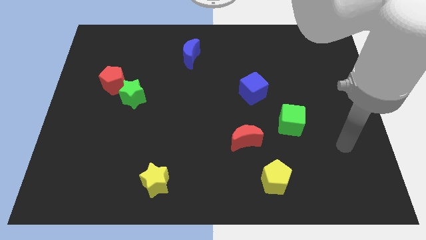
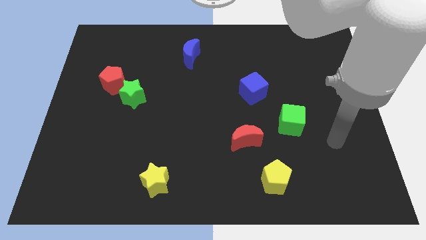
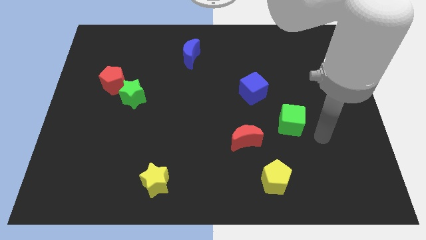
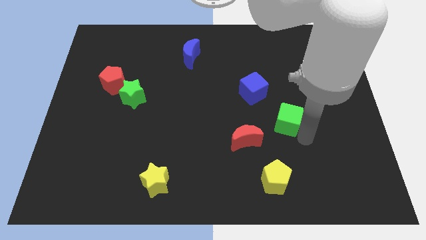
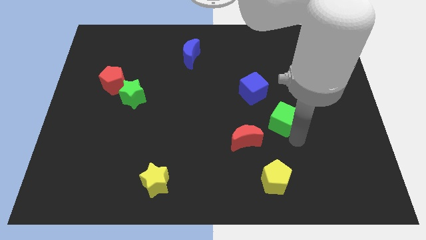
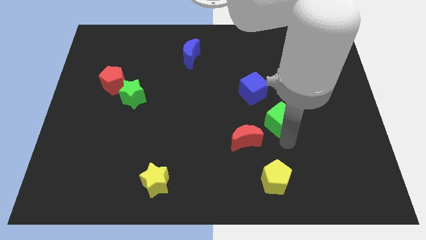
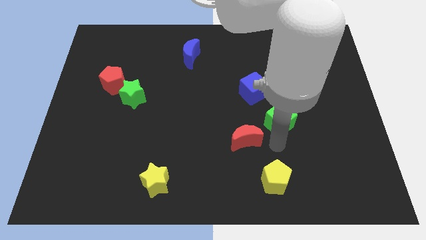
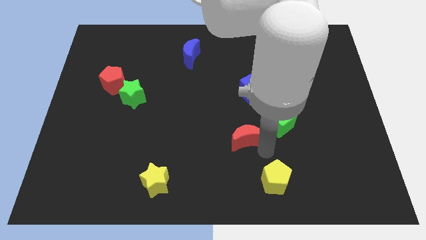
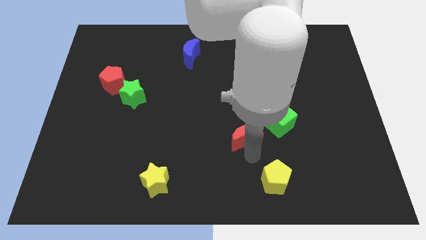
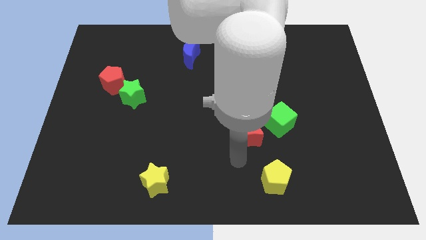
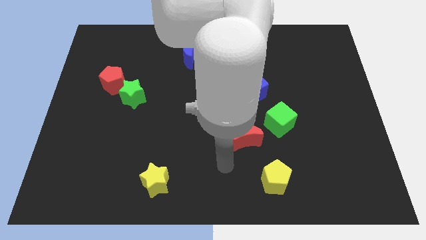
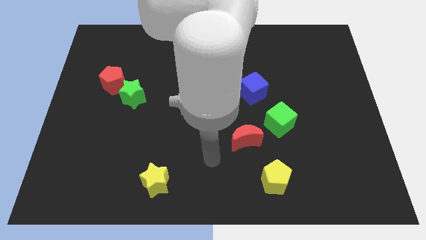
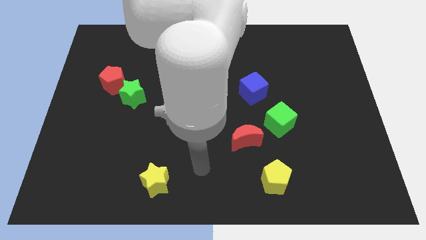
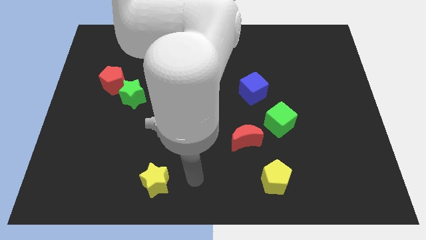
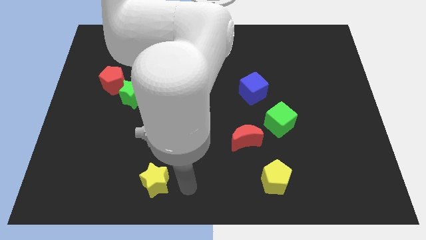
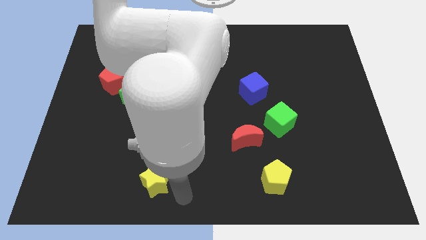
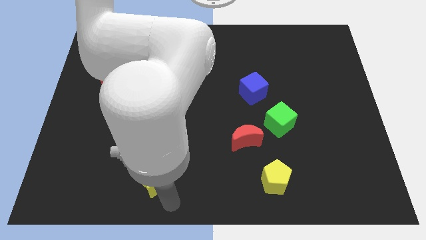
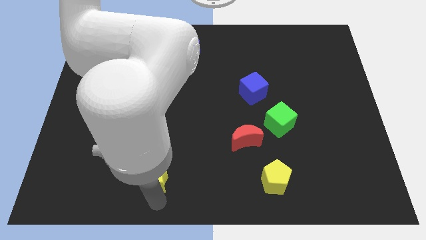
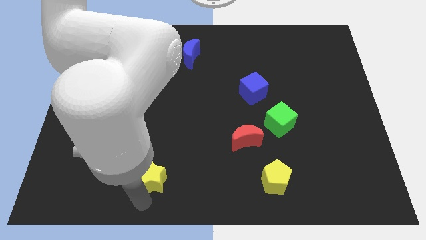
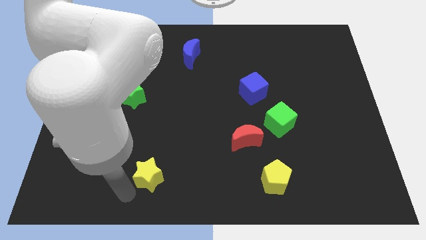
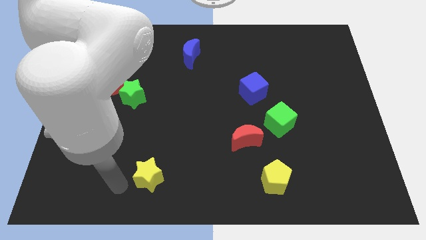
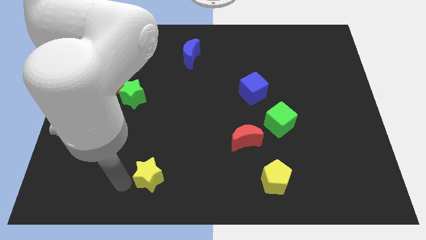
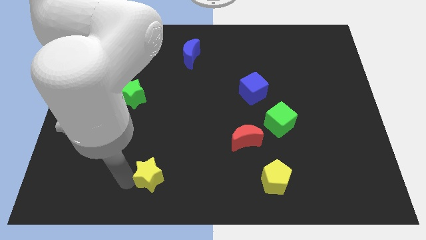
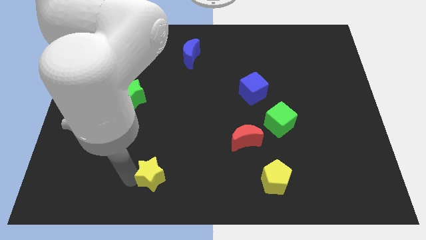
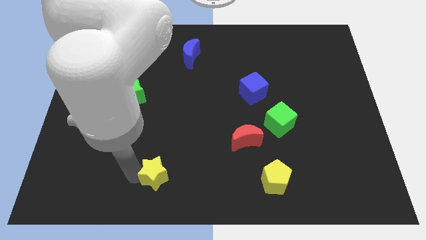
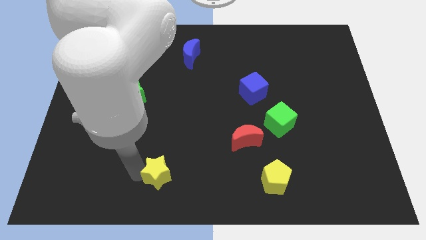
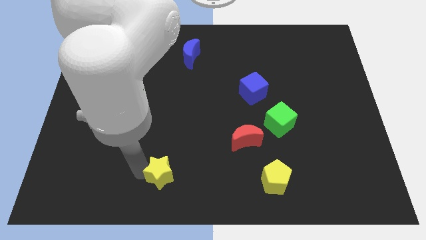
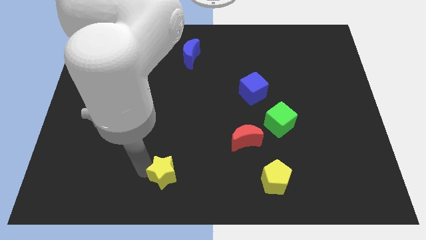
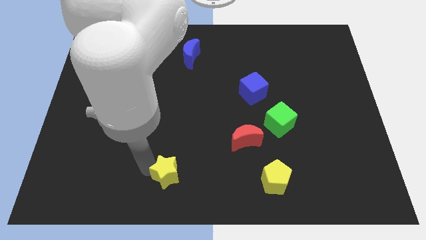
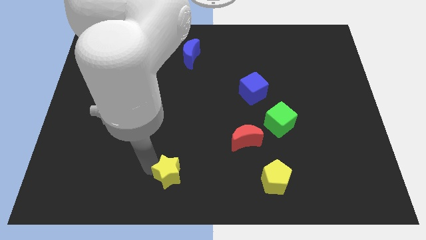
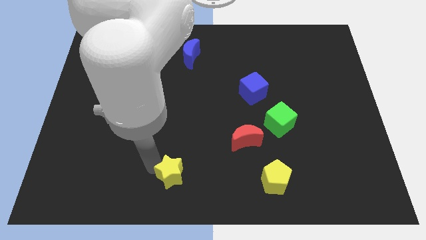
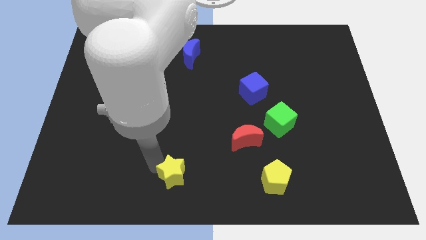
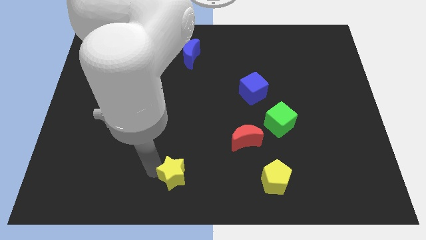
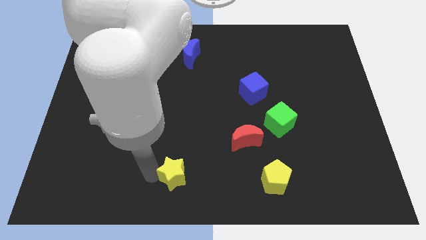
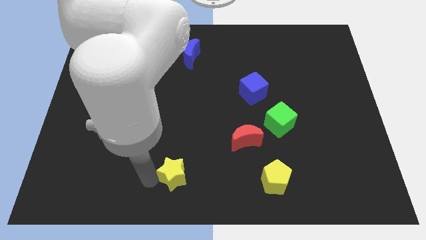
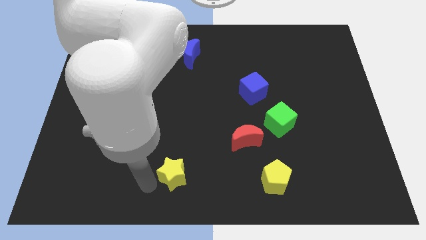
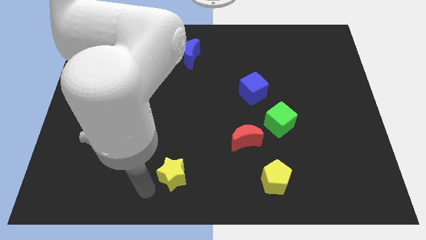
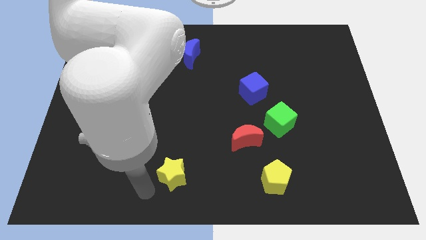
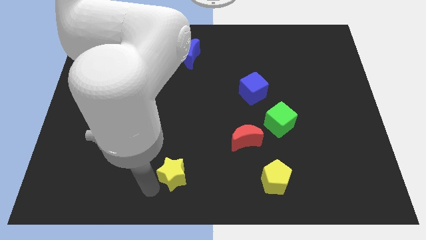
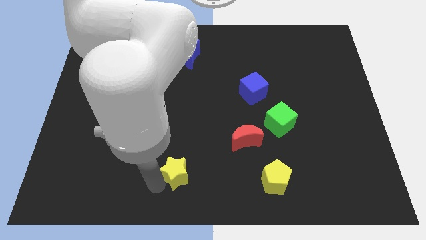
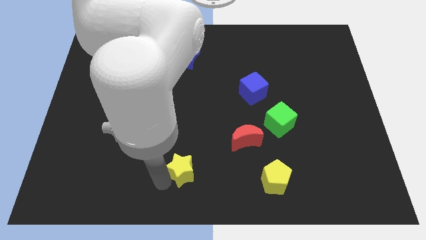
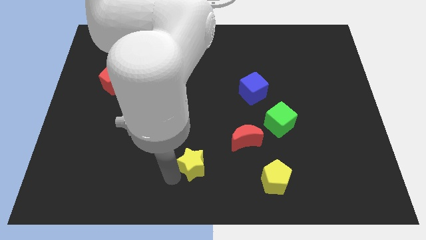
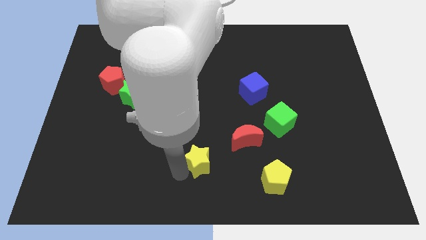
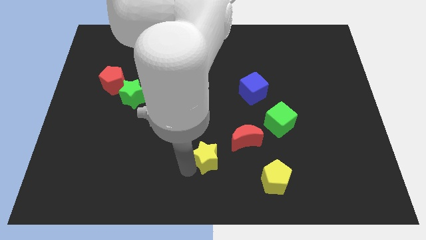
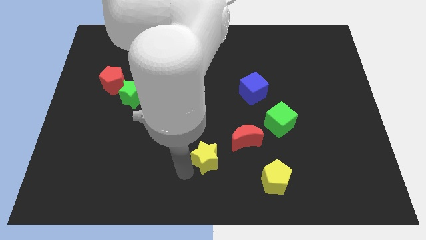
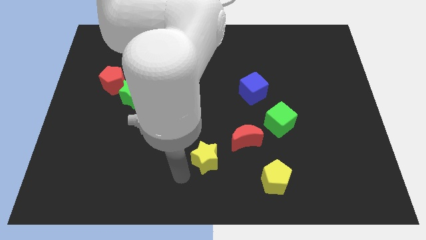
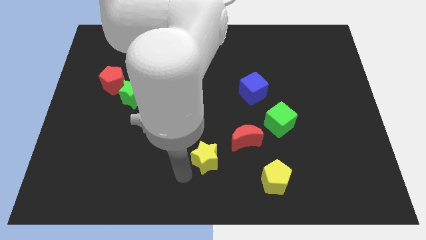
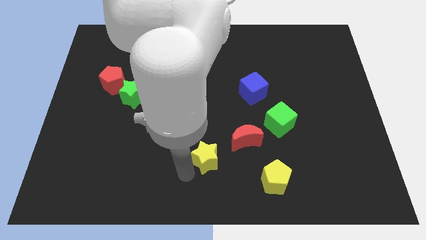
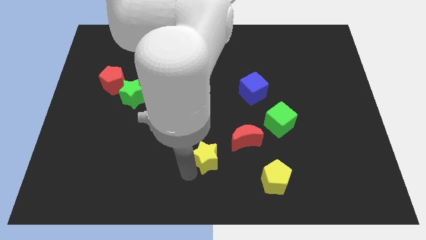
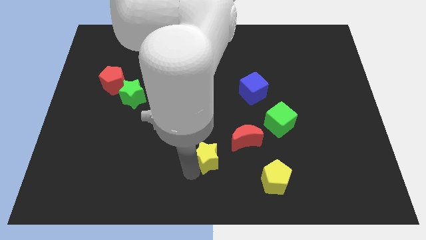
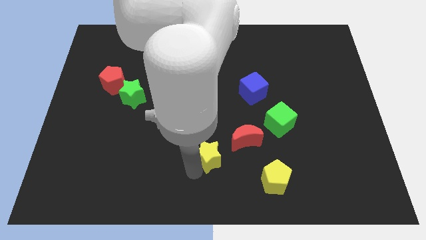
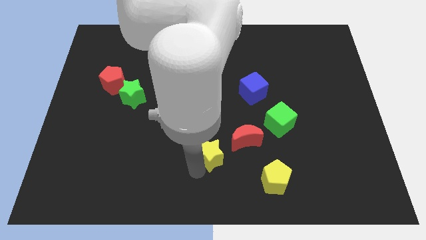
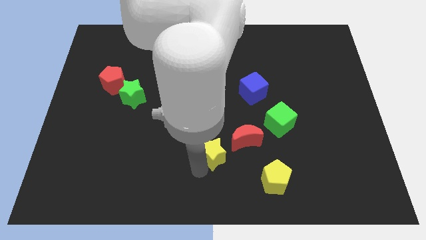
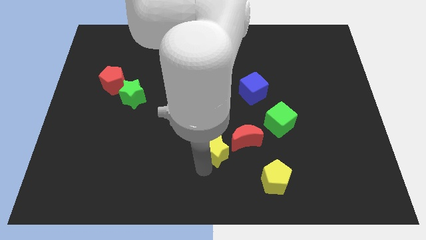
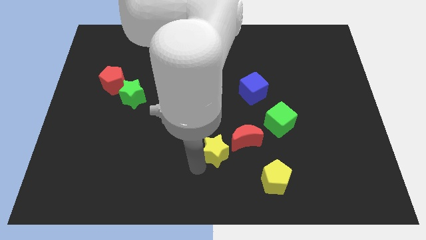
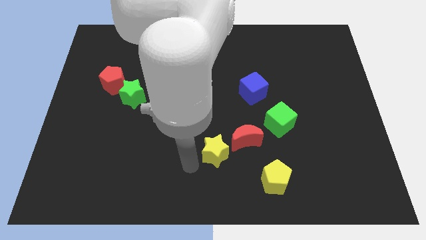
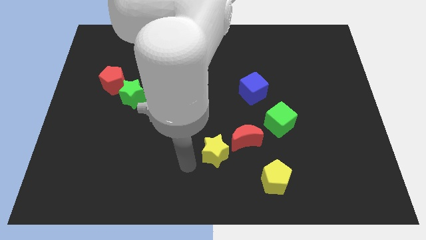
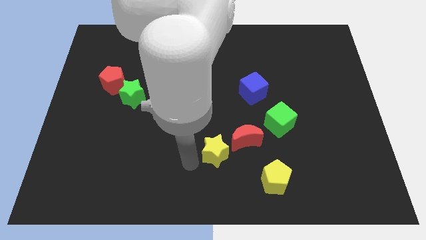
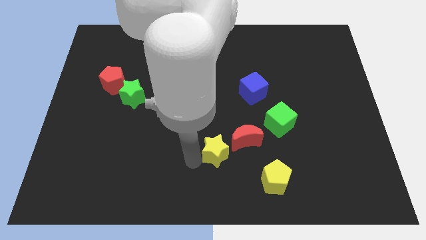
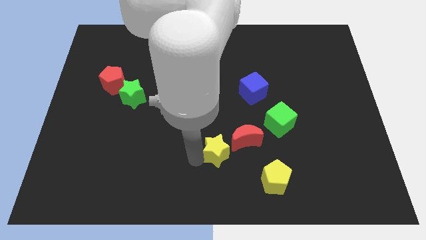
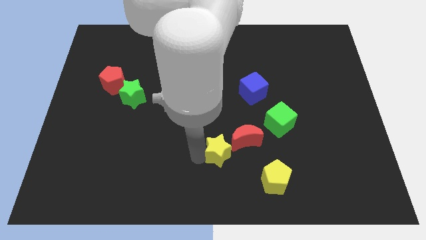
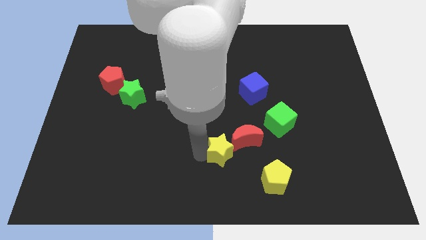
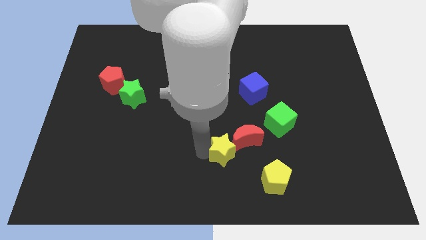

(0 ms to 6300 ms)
slide the yellow star close to the red moon
